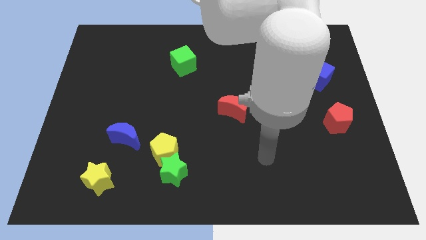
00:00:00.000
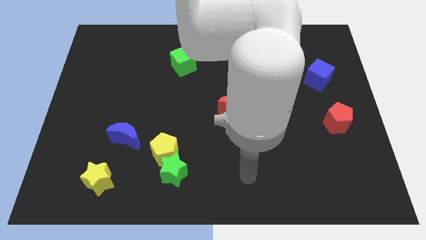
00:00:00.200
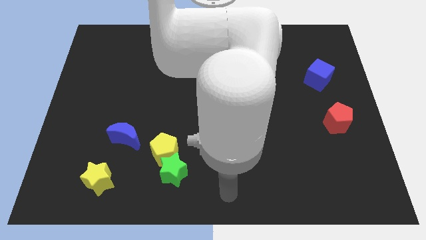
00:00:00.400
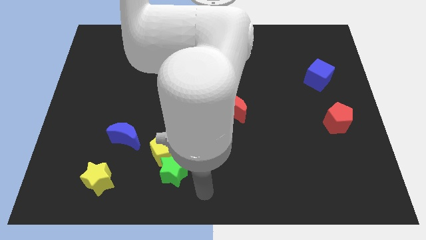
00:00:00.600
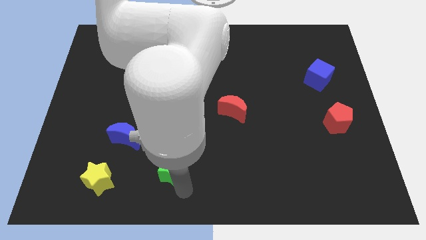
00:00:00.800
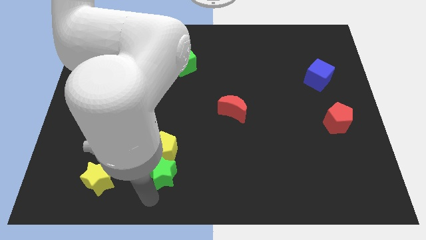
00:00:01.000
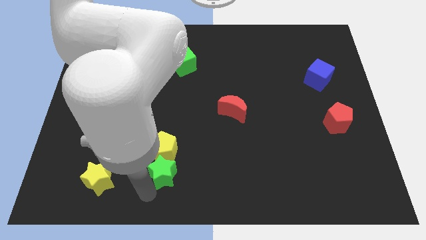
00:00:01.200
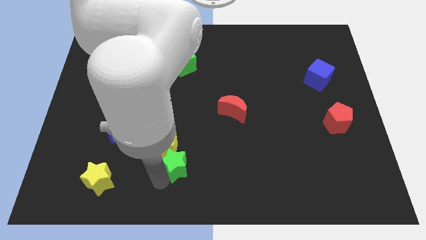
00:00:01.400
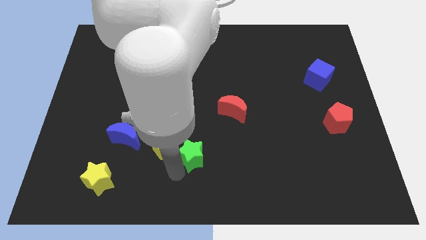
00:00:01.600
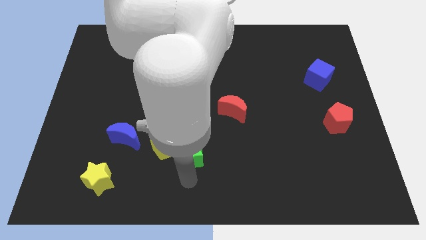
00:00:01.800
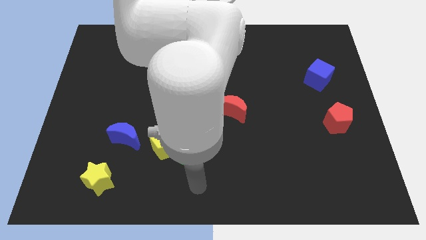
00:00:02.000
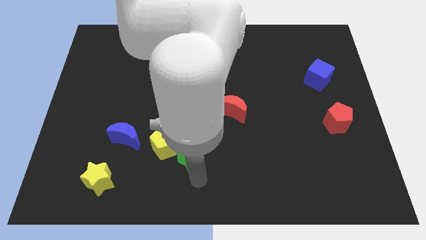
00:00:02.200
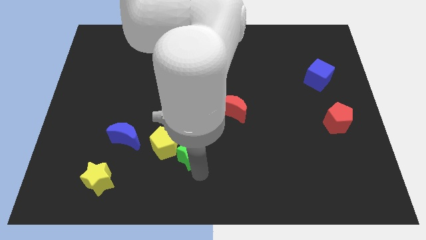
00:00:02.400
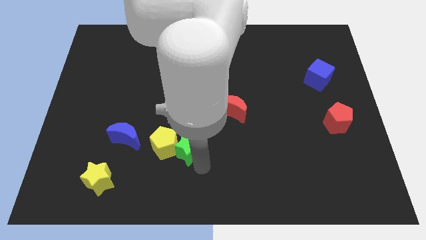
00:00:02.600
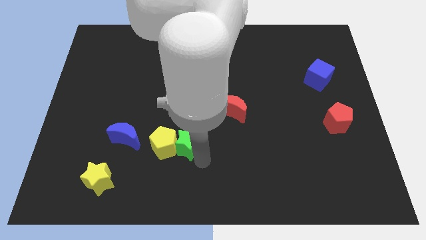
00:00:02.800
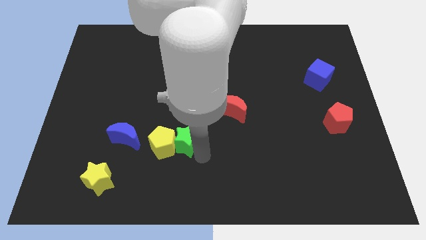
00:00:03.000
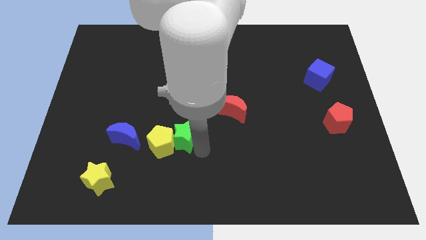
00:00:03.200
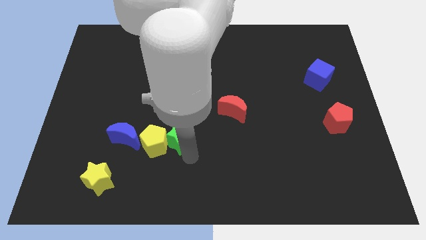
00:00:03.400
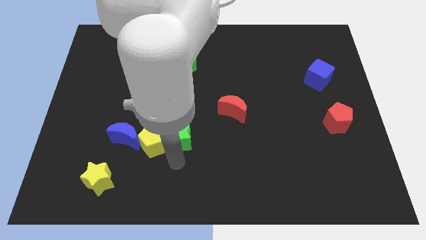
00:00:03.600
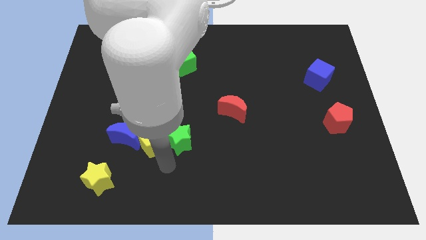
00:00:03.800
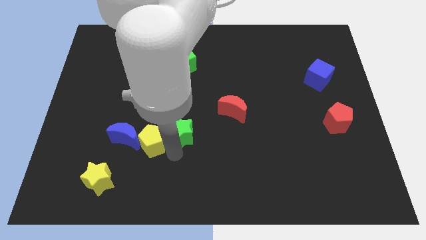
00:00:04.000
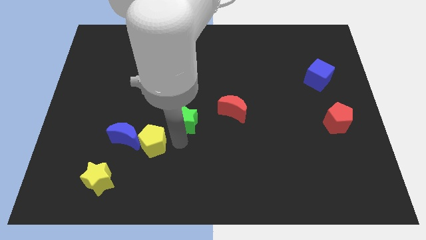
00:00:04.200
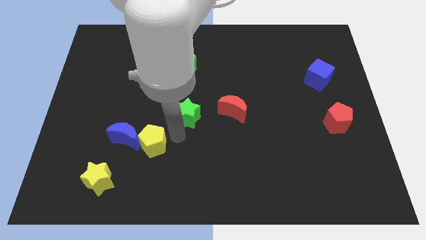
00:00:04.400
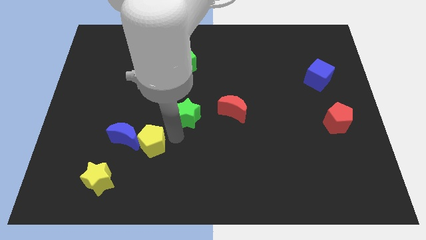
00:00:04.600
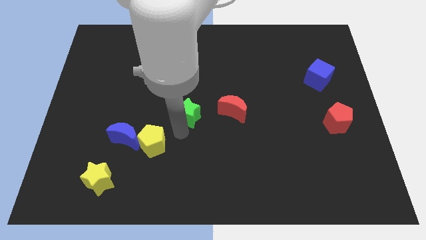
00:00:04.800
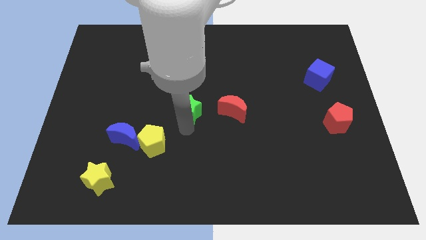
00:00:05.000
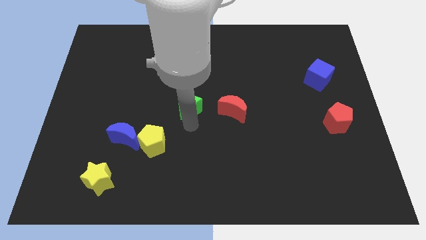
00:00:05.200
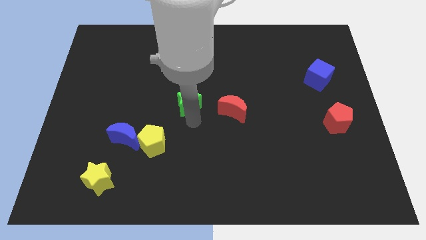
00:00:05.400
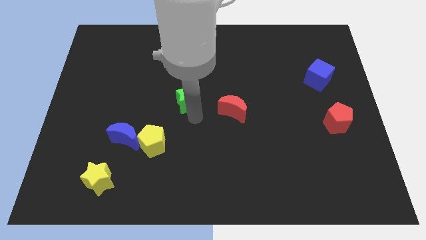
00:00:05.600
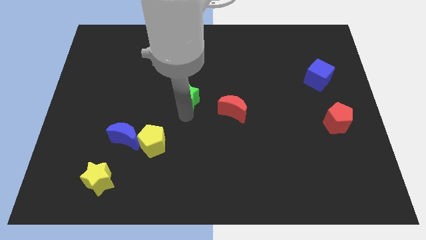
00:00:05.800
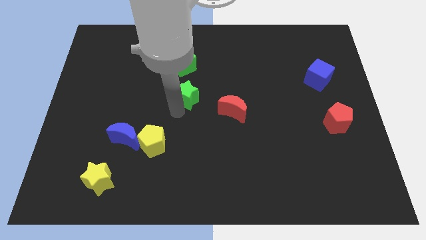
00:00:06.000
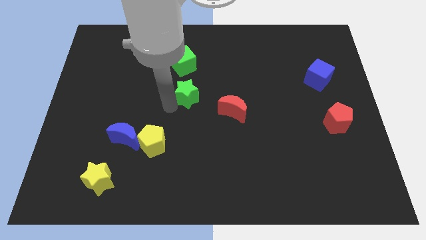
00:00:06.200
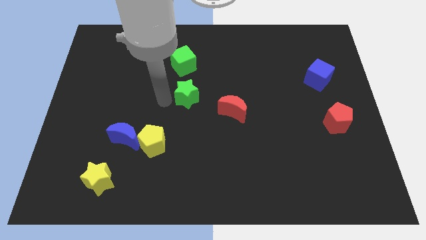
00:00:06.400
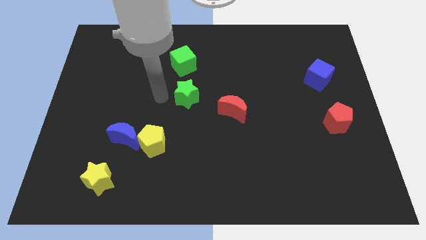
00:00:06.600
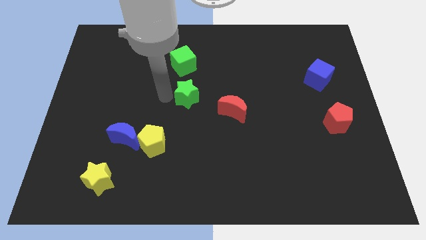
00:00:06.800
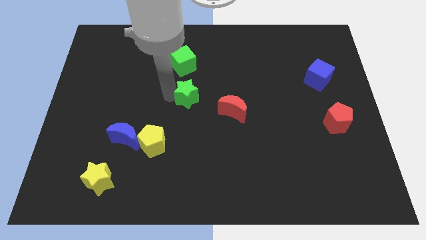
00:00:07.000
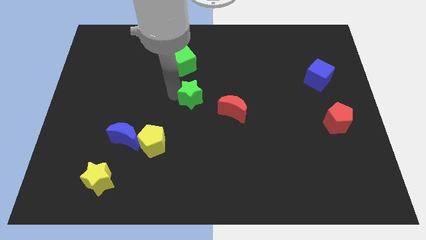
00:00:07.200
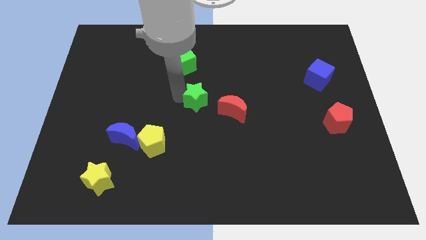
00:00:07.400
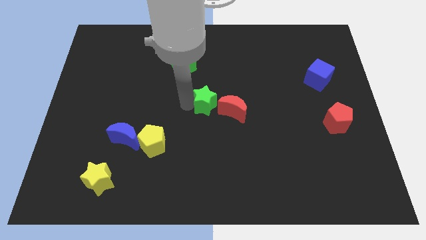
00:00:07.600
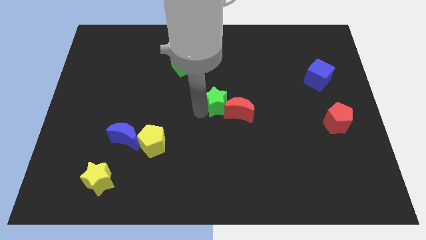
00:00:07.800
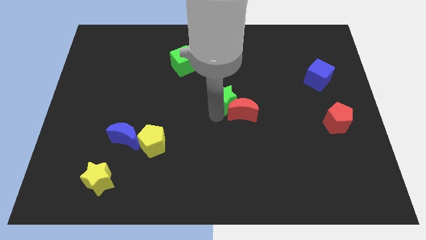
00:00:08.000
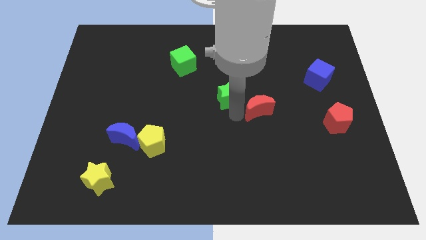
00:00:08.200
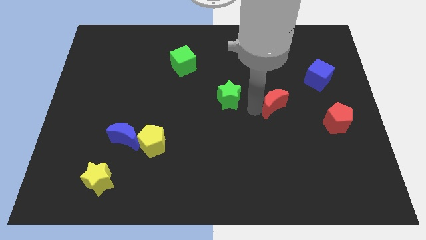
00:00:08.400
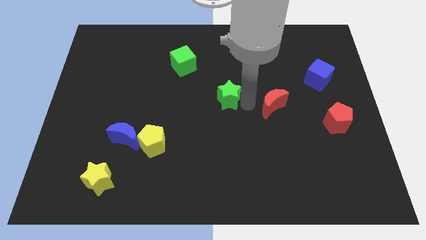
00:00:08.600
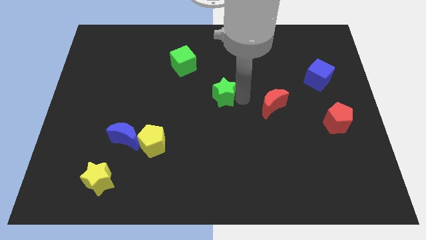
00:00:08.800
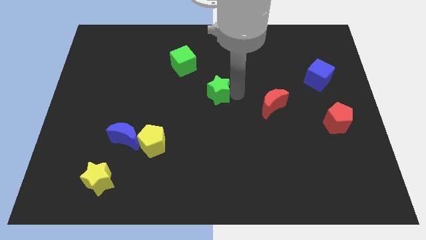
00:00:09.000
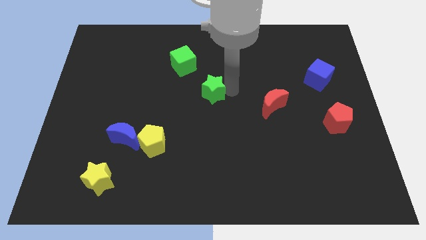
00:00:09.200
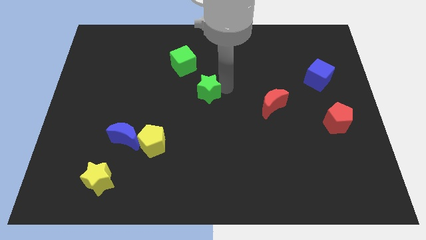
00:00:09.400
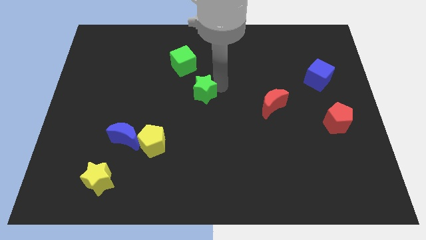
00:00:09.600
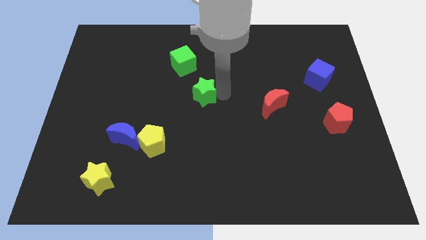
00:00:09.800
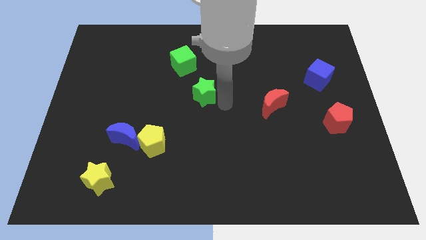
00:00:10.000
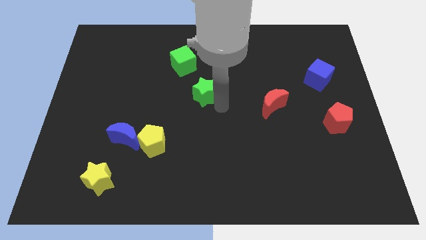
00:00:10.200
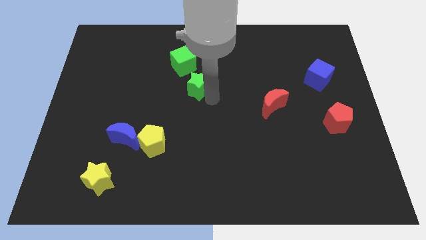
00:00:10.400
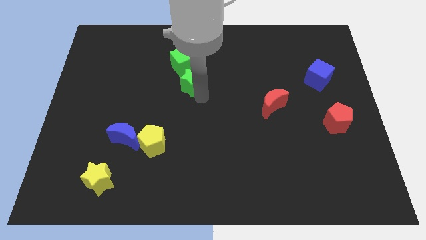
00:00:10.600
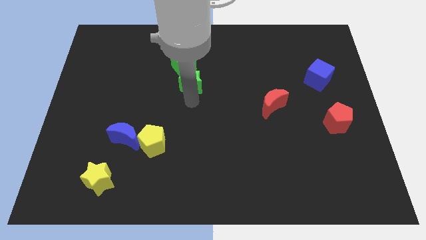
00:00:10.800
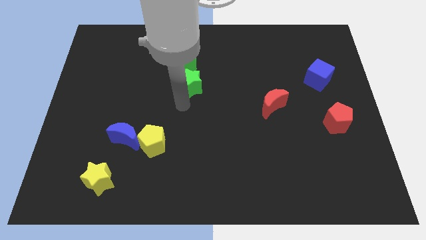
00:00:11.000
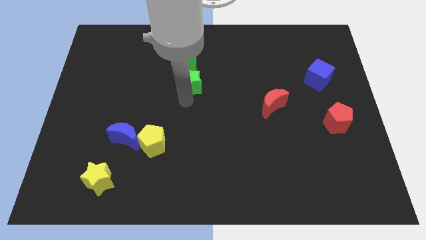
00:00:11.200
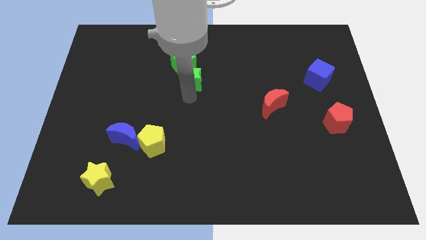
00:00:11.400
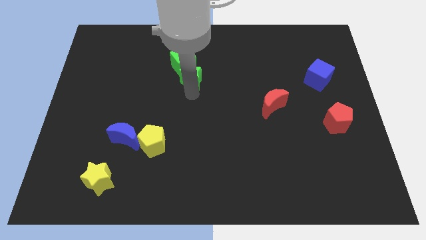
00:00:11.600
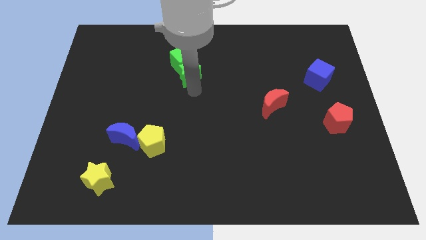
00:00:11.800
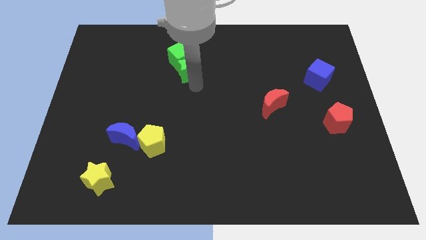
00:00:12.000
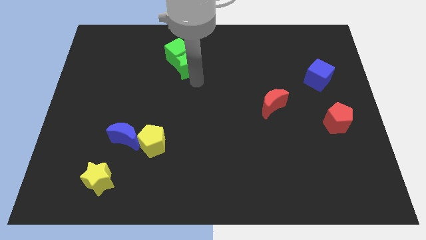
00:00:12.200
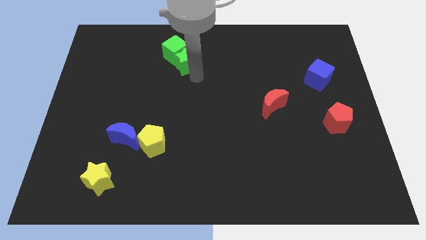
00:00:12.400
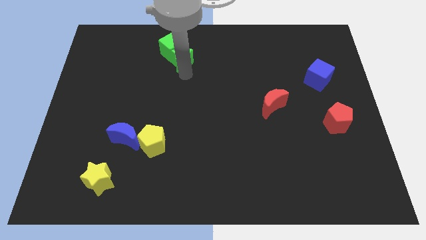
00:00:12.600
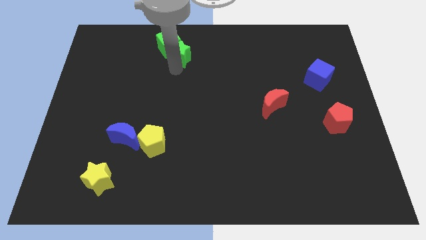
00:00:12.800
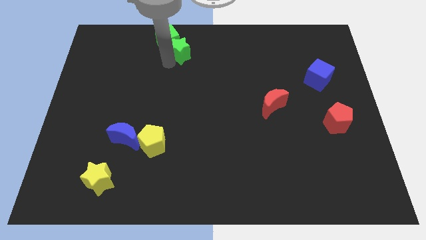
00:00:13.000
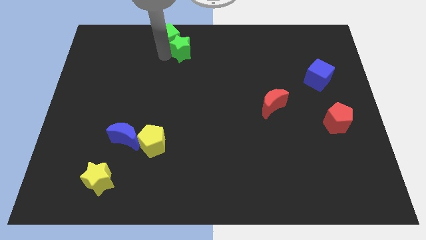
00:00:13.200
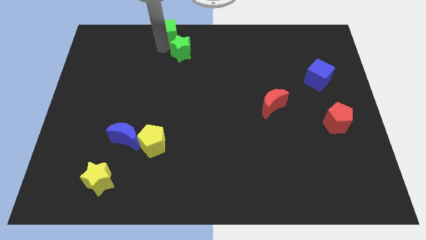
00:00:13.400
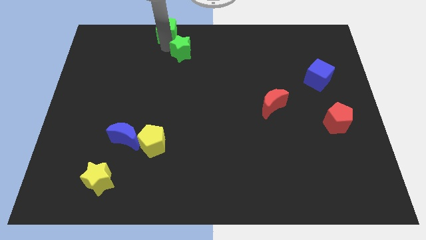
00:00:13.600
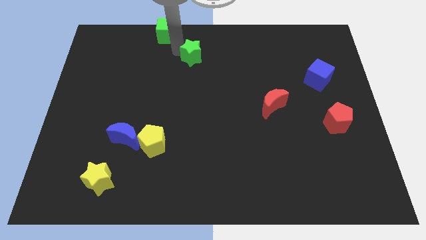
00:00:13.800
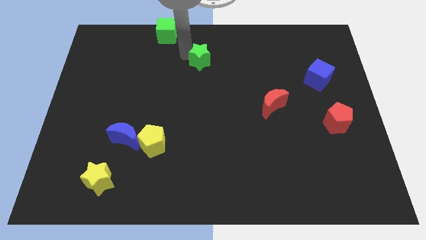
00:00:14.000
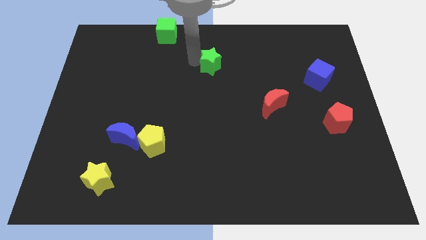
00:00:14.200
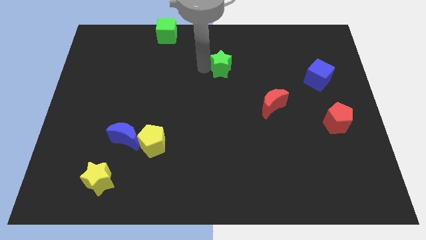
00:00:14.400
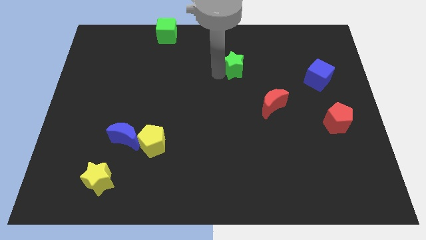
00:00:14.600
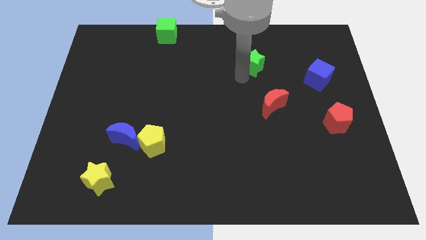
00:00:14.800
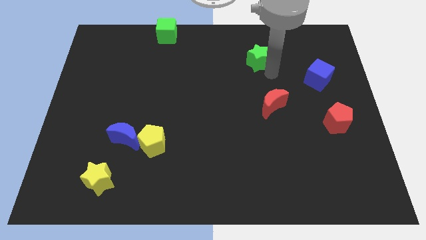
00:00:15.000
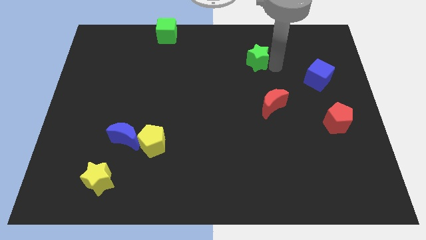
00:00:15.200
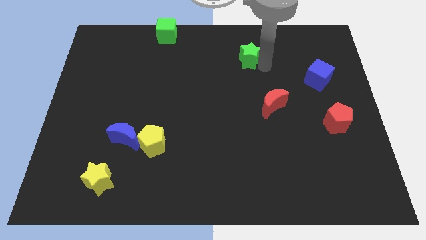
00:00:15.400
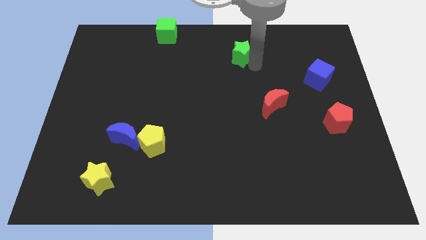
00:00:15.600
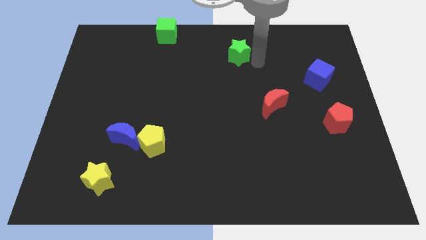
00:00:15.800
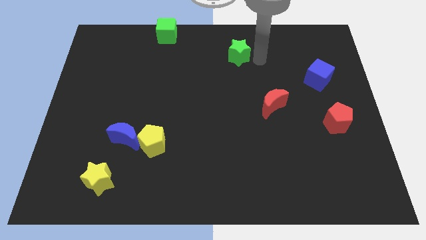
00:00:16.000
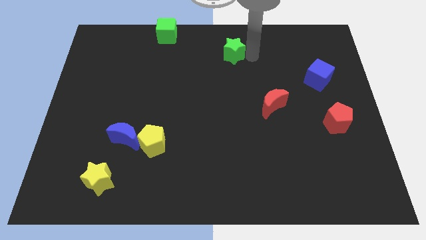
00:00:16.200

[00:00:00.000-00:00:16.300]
move the green star to the towards your base
